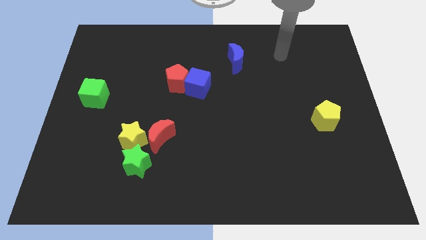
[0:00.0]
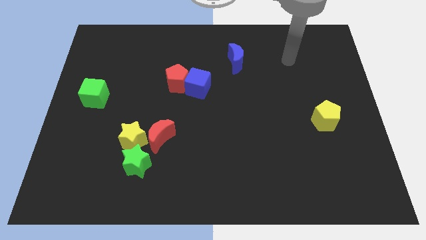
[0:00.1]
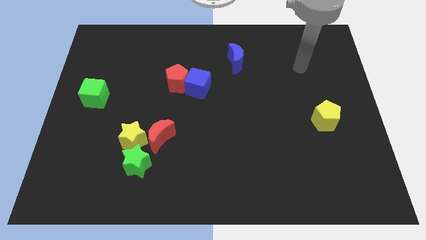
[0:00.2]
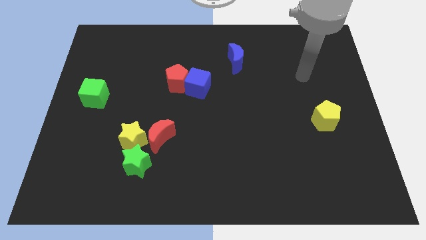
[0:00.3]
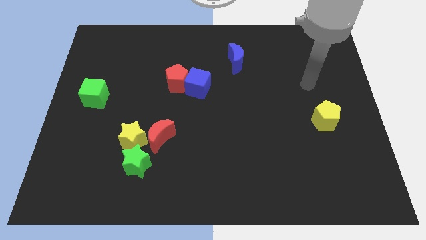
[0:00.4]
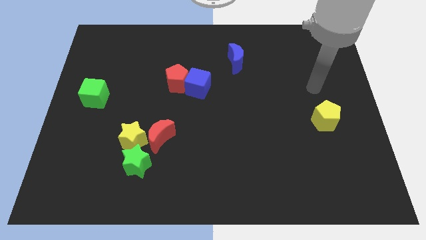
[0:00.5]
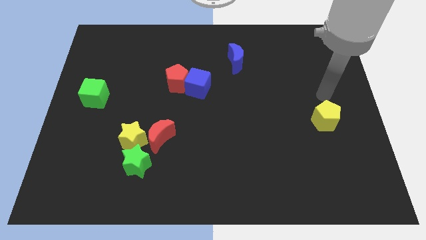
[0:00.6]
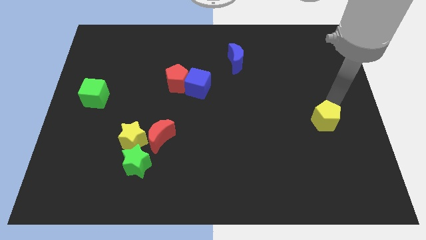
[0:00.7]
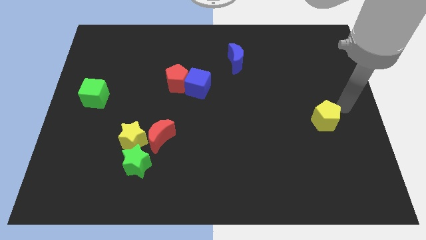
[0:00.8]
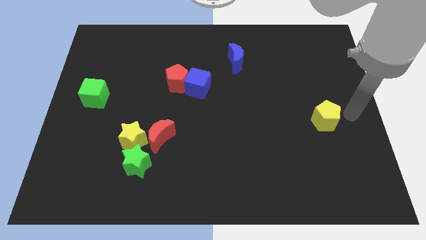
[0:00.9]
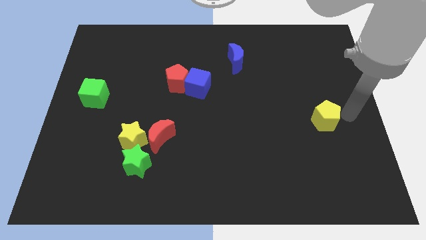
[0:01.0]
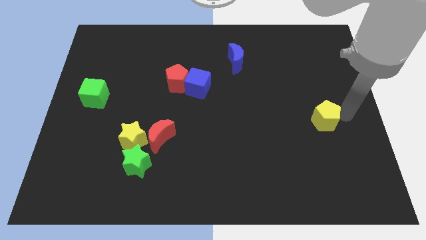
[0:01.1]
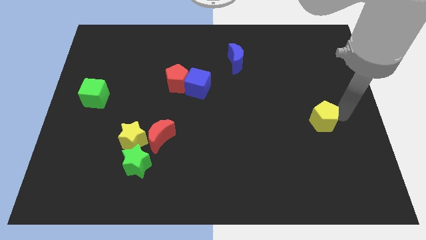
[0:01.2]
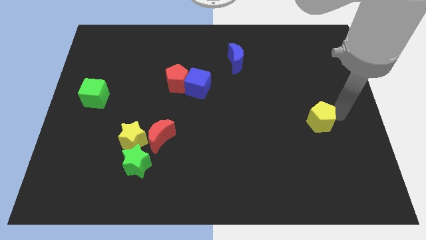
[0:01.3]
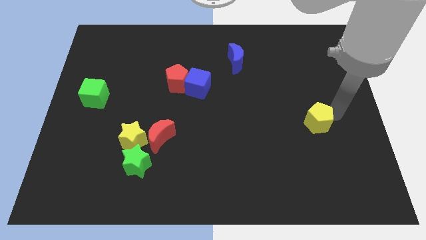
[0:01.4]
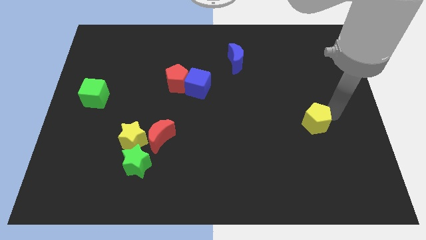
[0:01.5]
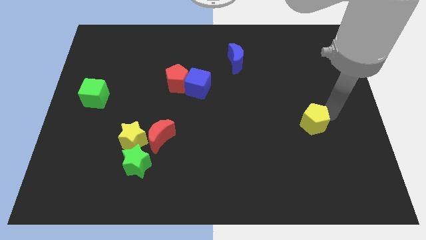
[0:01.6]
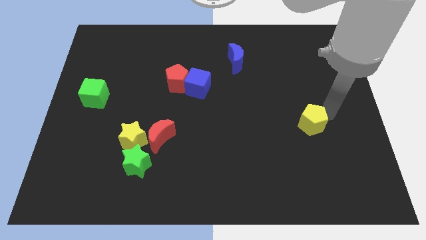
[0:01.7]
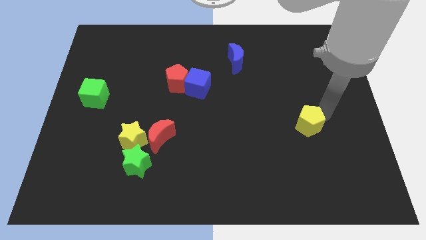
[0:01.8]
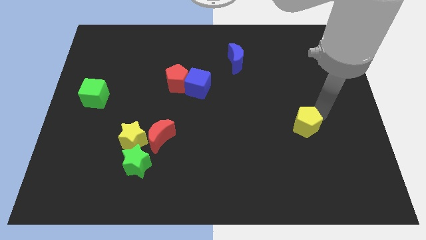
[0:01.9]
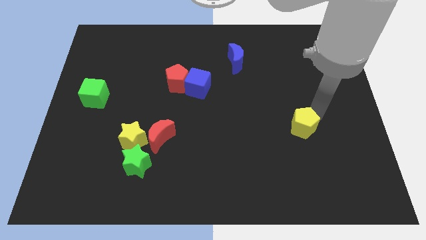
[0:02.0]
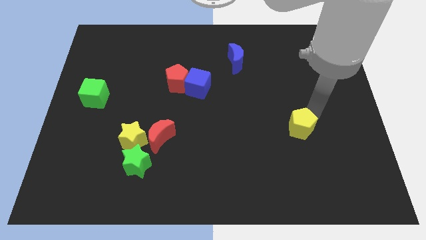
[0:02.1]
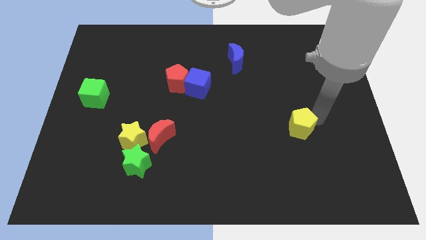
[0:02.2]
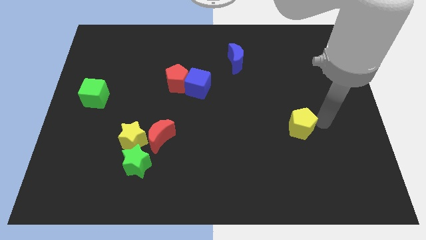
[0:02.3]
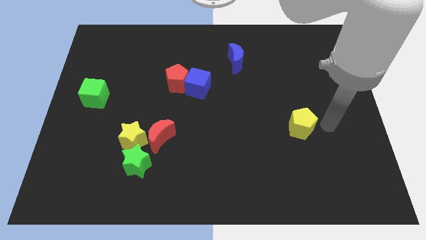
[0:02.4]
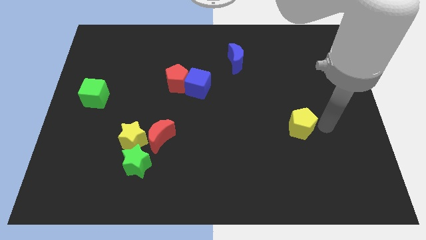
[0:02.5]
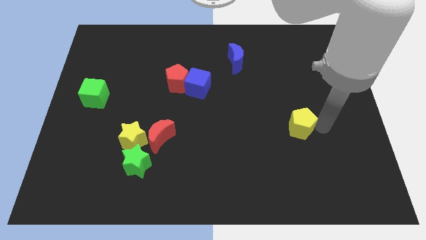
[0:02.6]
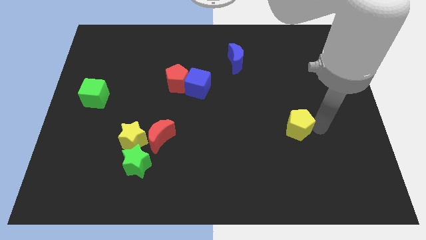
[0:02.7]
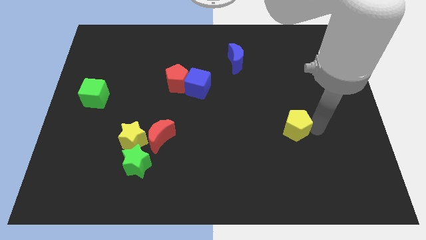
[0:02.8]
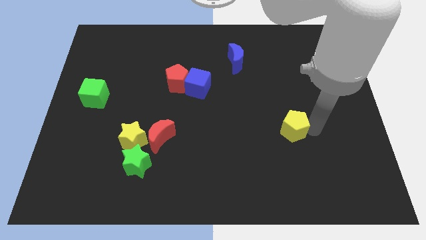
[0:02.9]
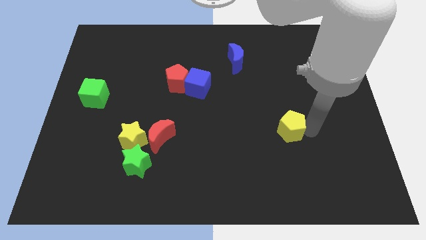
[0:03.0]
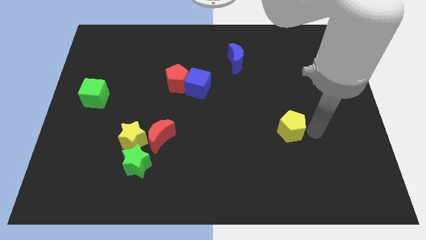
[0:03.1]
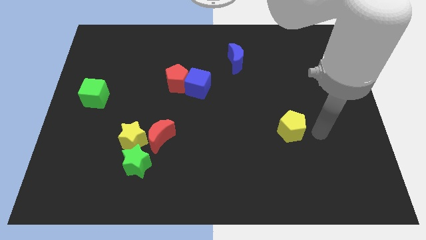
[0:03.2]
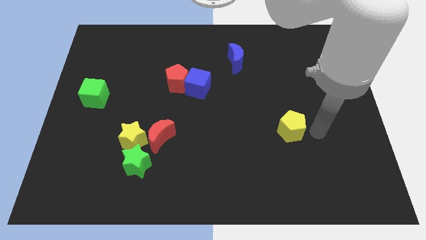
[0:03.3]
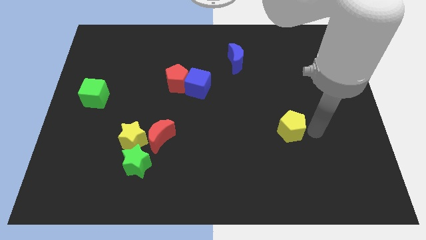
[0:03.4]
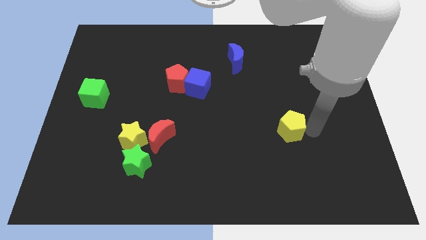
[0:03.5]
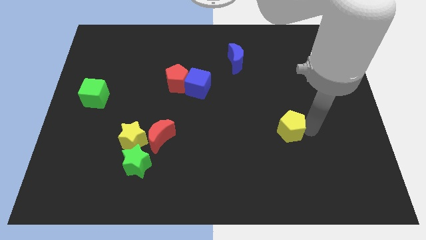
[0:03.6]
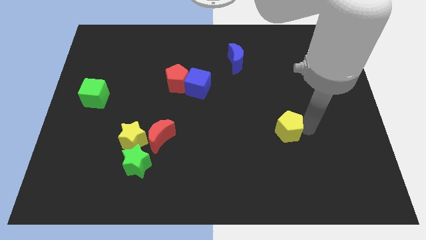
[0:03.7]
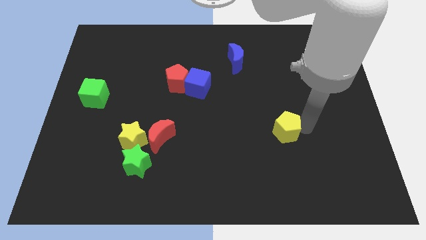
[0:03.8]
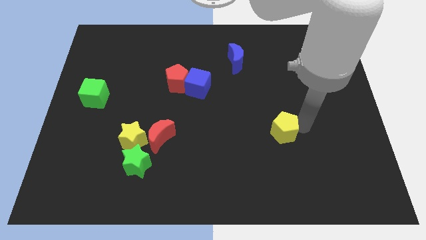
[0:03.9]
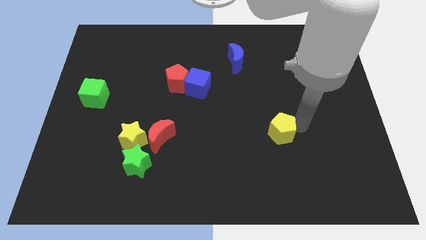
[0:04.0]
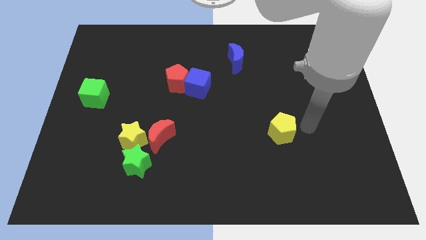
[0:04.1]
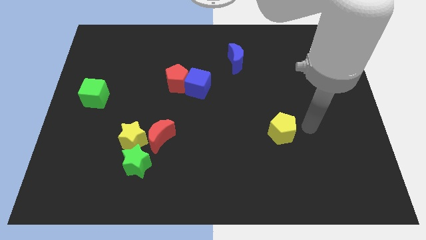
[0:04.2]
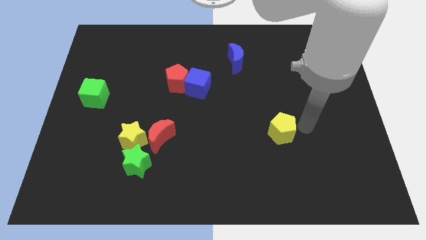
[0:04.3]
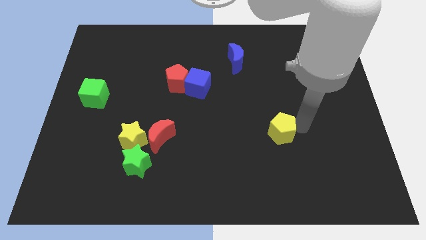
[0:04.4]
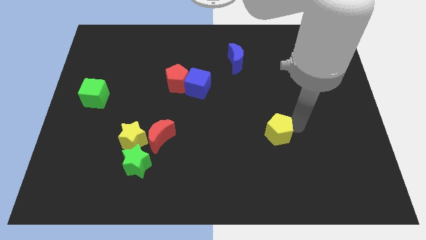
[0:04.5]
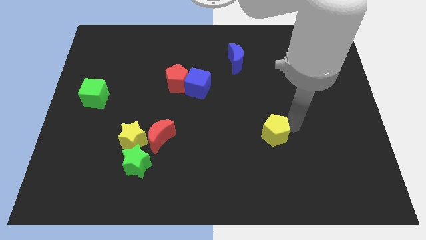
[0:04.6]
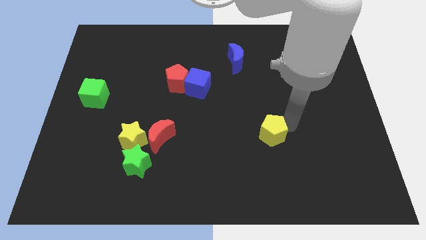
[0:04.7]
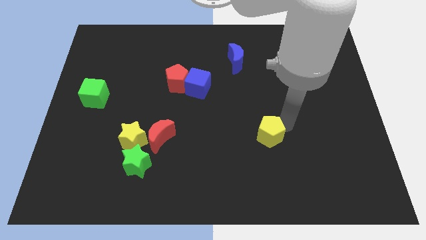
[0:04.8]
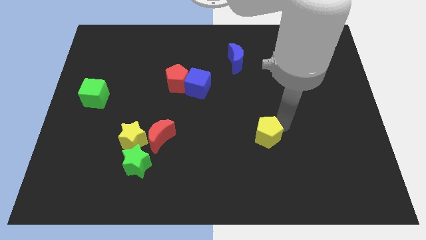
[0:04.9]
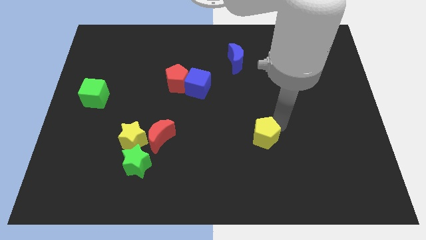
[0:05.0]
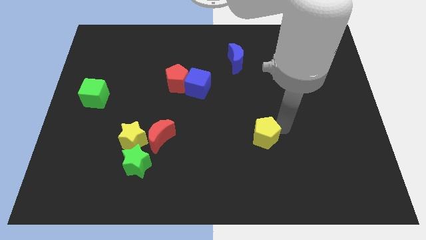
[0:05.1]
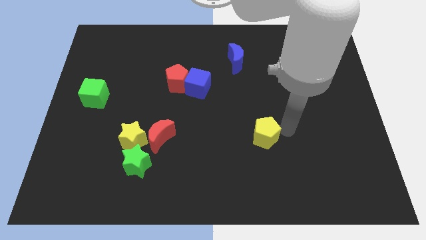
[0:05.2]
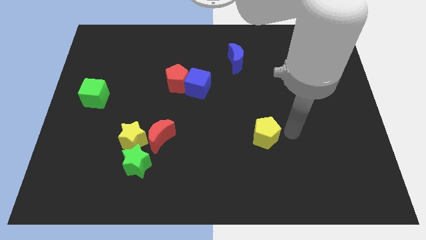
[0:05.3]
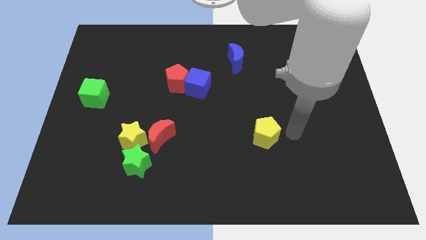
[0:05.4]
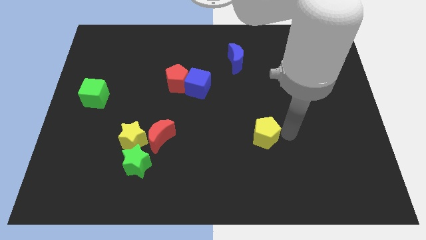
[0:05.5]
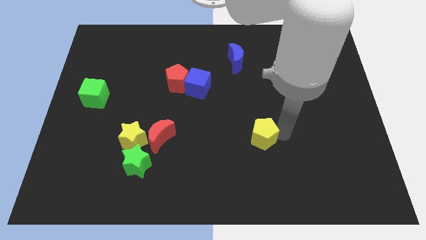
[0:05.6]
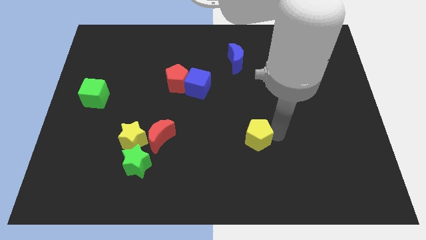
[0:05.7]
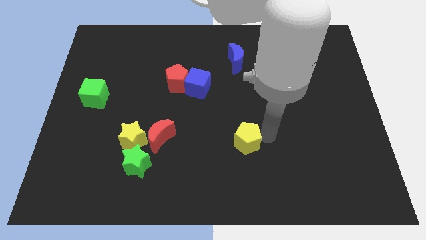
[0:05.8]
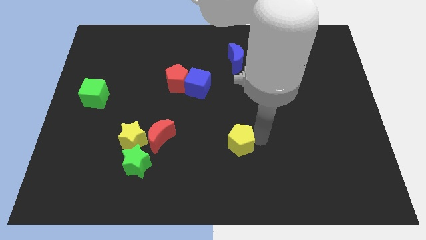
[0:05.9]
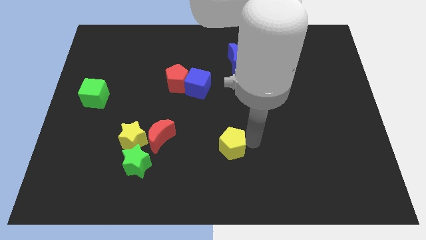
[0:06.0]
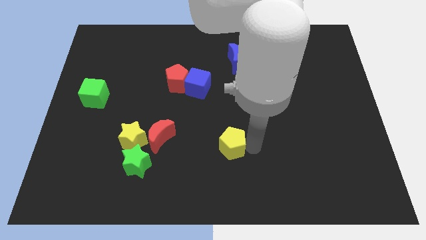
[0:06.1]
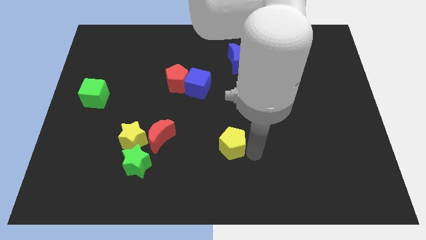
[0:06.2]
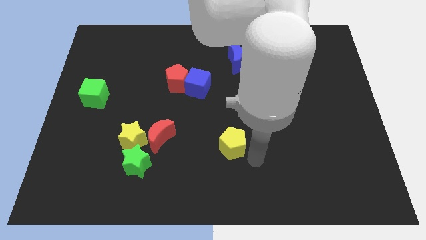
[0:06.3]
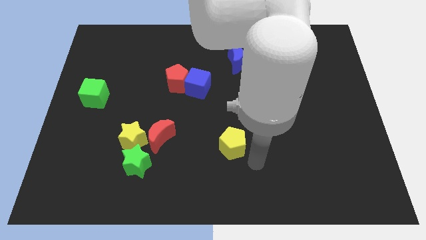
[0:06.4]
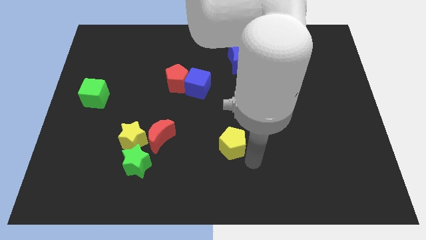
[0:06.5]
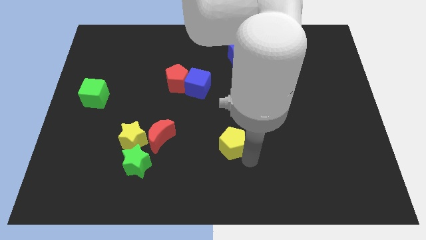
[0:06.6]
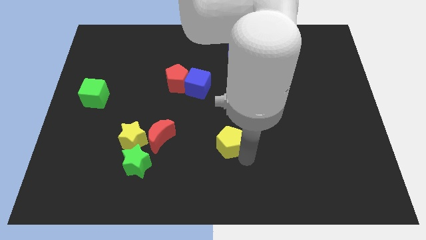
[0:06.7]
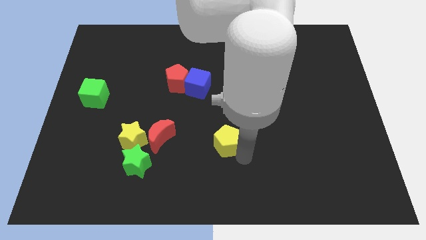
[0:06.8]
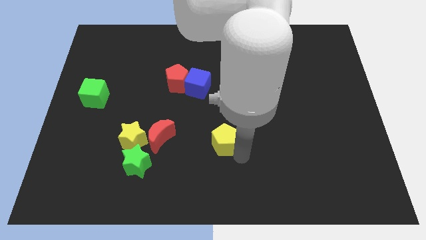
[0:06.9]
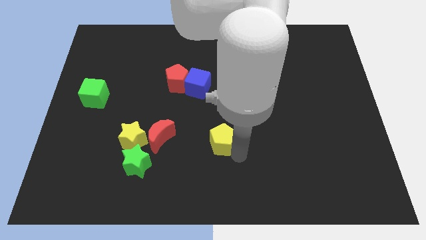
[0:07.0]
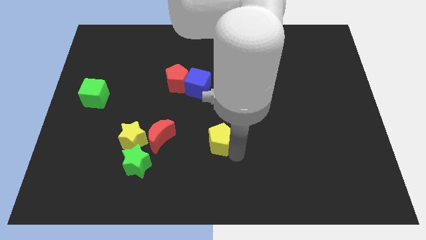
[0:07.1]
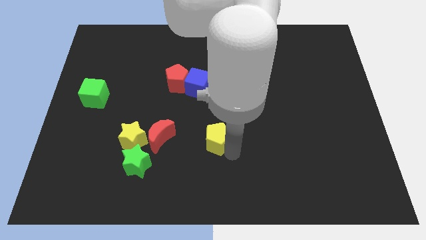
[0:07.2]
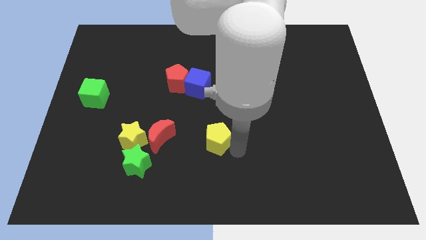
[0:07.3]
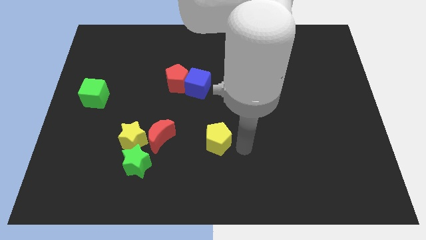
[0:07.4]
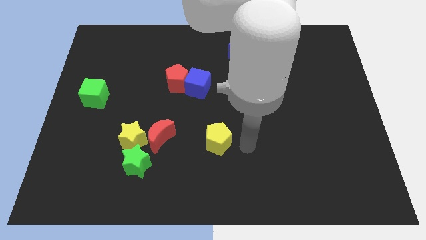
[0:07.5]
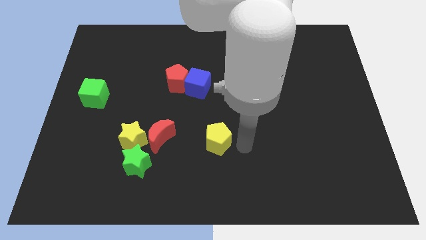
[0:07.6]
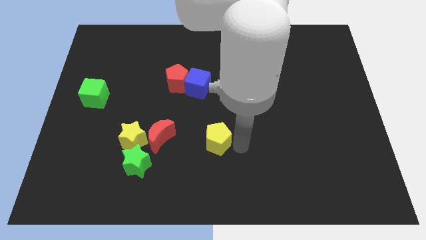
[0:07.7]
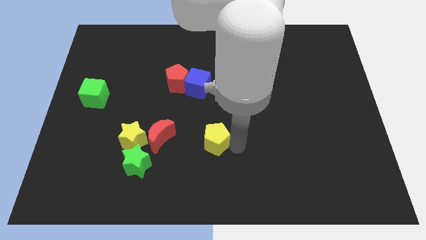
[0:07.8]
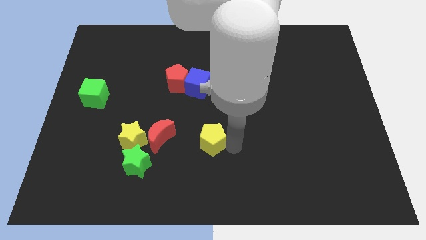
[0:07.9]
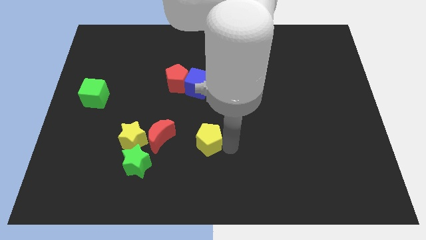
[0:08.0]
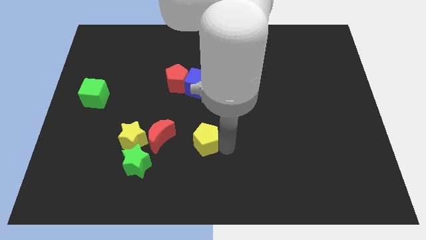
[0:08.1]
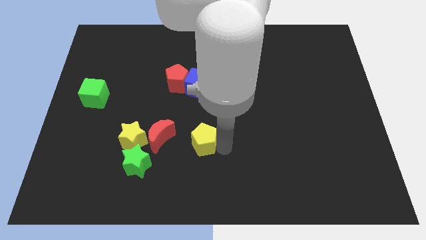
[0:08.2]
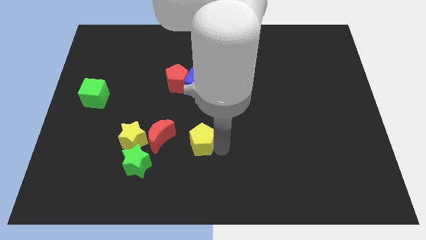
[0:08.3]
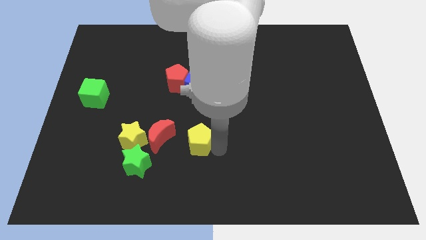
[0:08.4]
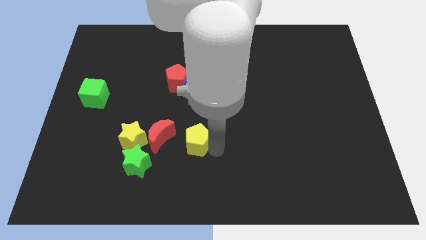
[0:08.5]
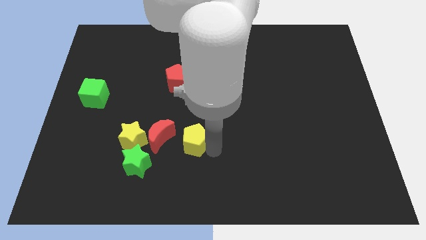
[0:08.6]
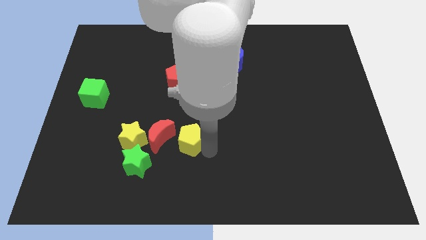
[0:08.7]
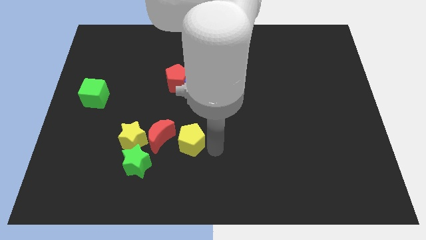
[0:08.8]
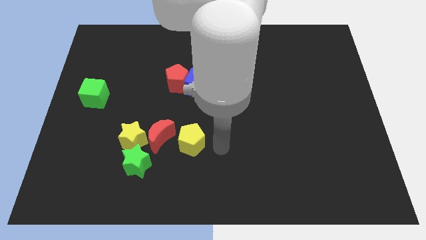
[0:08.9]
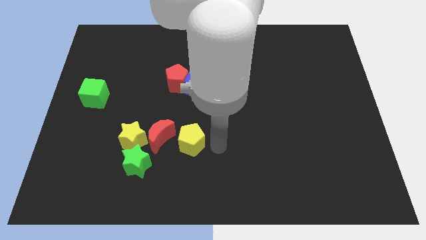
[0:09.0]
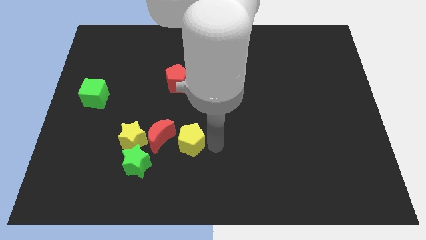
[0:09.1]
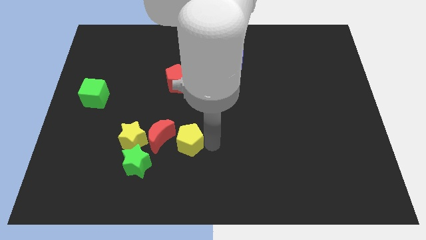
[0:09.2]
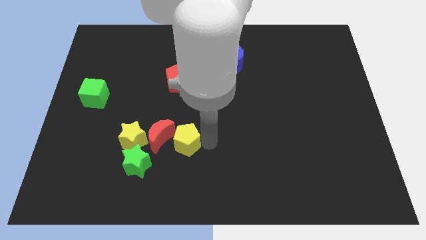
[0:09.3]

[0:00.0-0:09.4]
put the yellow pentagon close to the red moon
